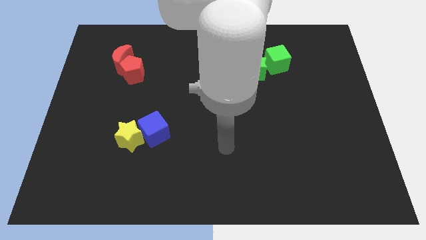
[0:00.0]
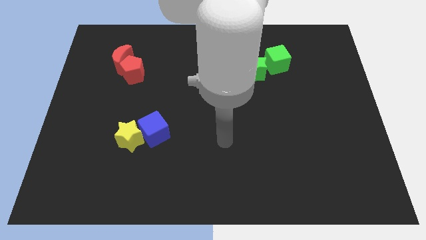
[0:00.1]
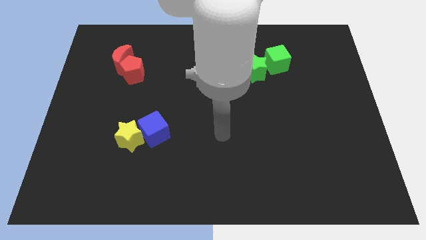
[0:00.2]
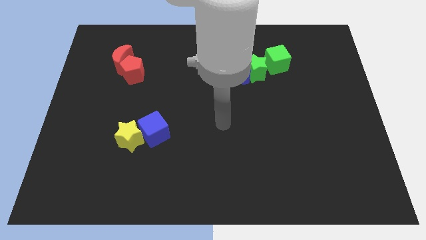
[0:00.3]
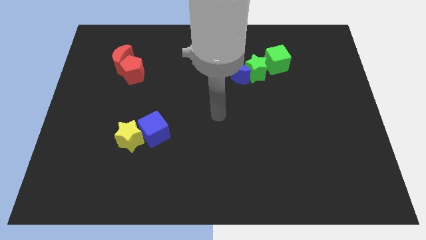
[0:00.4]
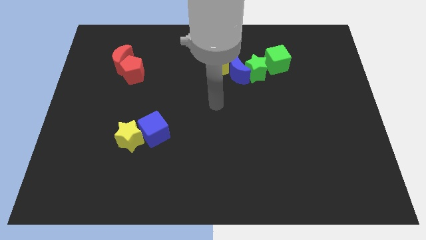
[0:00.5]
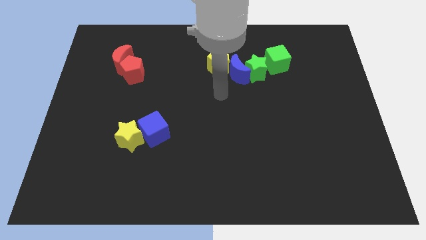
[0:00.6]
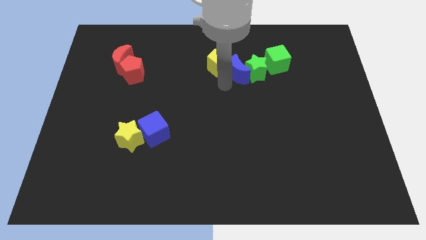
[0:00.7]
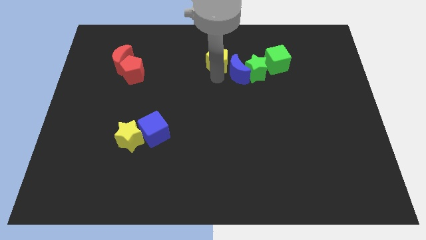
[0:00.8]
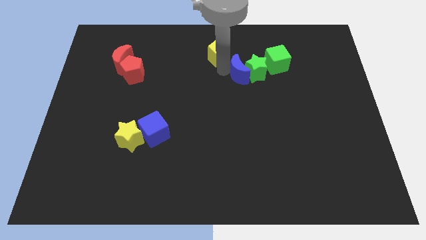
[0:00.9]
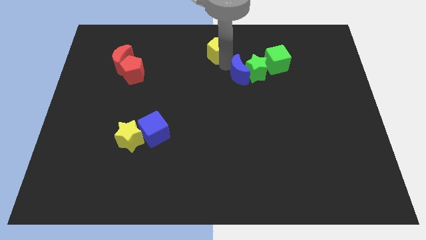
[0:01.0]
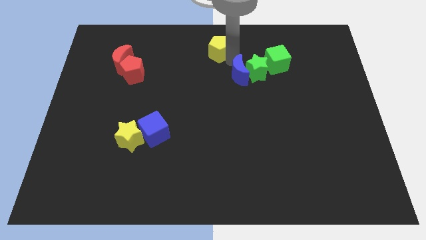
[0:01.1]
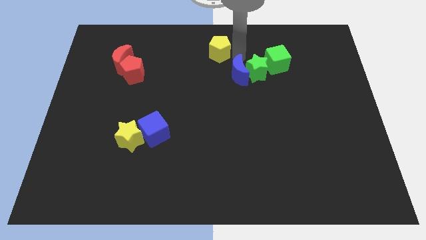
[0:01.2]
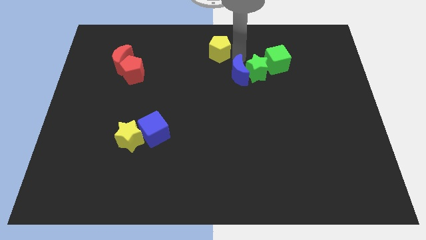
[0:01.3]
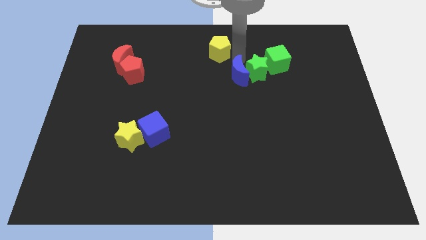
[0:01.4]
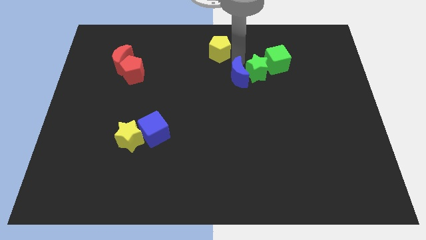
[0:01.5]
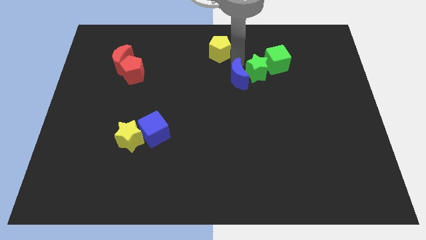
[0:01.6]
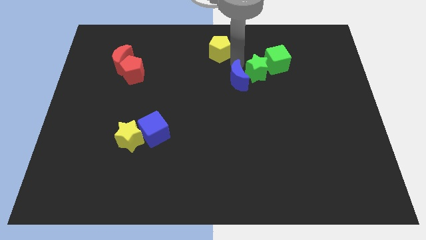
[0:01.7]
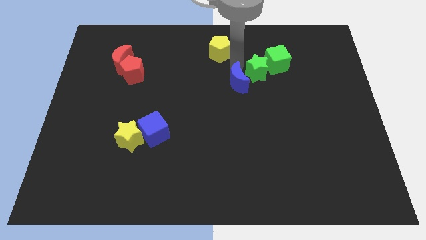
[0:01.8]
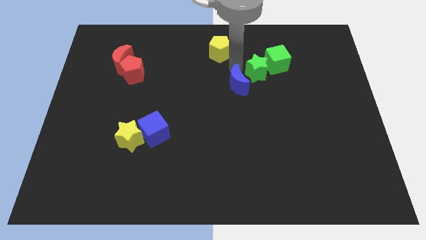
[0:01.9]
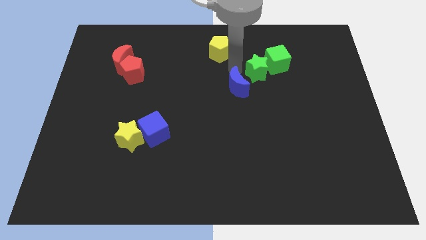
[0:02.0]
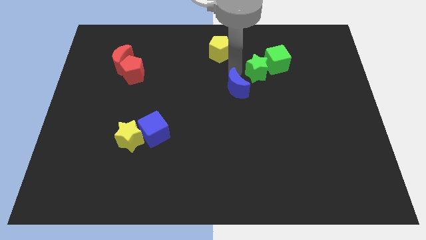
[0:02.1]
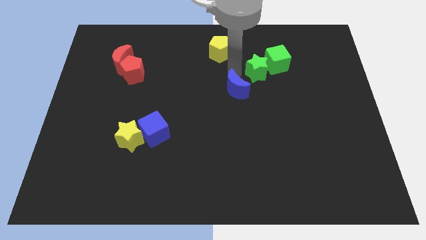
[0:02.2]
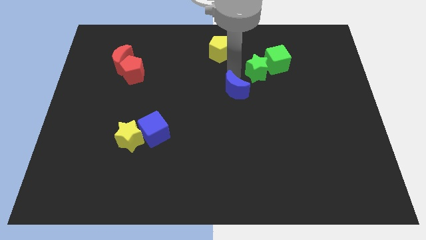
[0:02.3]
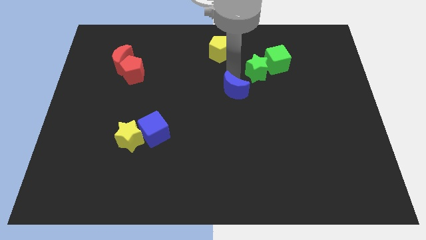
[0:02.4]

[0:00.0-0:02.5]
pull the blue moon apart from the green star and yellow pentagon

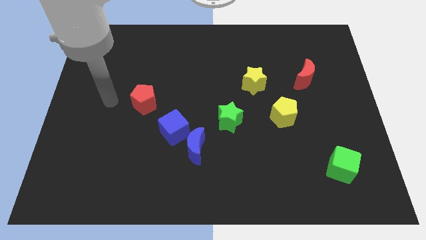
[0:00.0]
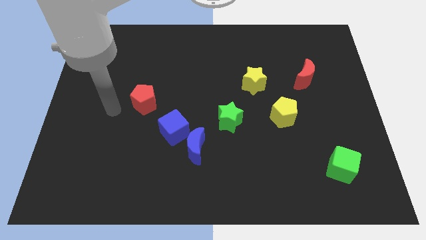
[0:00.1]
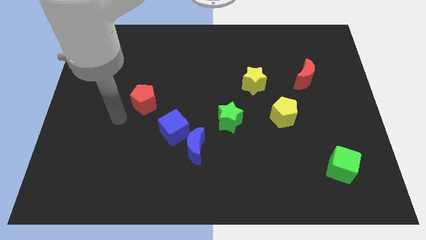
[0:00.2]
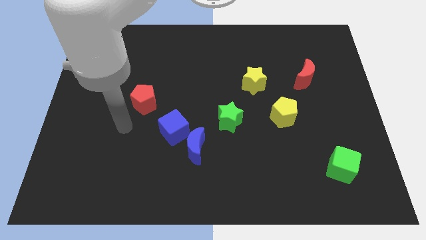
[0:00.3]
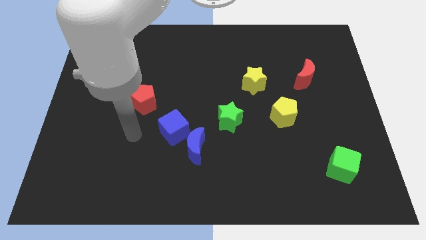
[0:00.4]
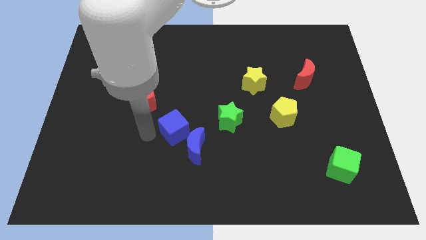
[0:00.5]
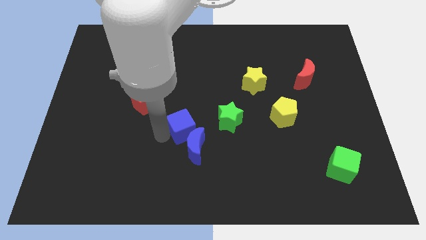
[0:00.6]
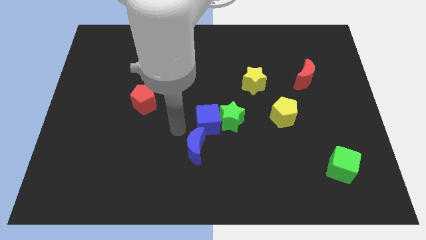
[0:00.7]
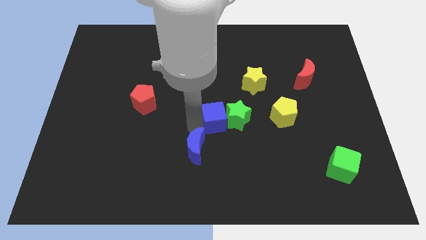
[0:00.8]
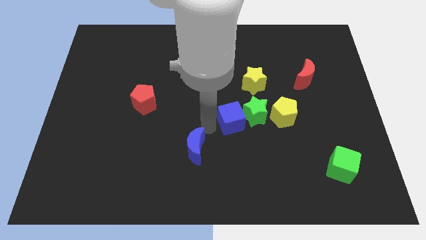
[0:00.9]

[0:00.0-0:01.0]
move the blue moon away from the blue cube

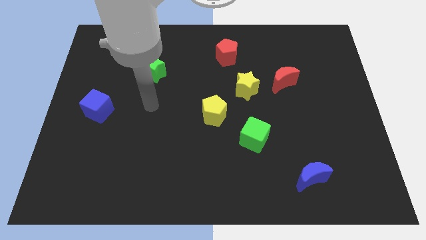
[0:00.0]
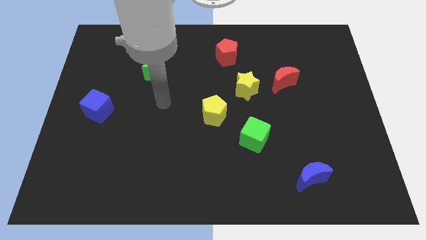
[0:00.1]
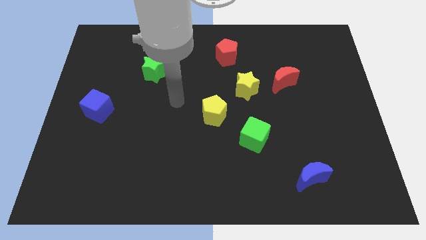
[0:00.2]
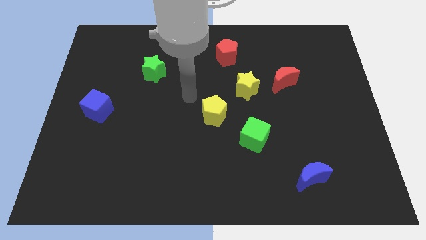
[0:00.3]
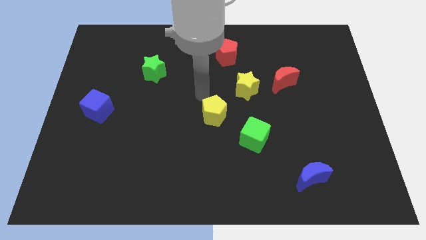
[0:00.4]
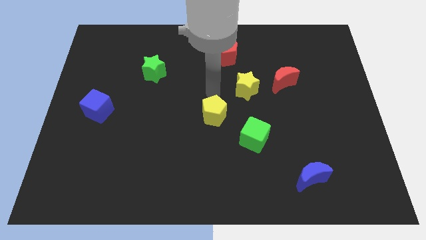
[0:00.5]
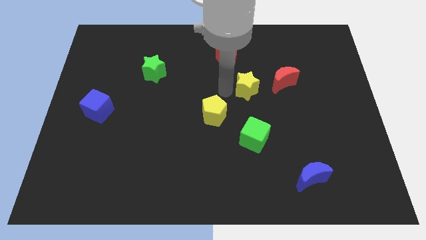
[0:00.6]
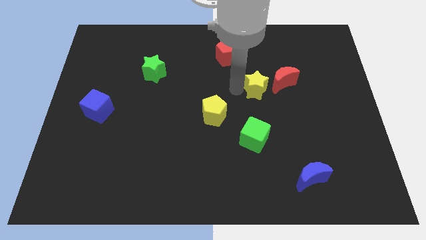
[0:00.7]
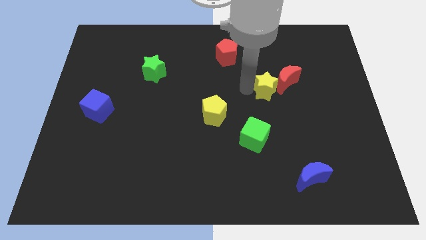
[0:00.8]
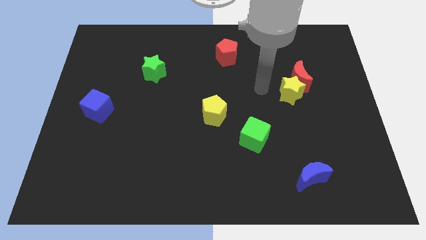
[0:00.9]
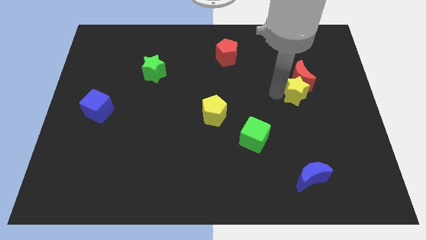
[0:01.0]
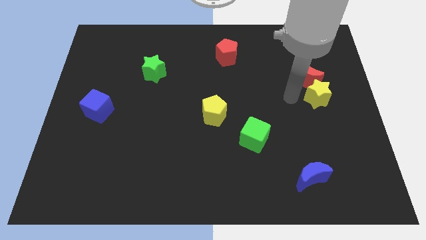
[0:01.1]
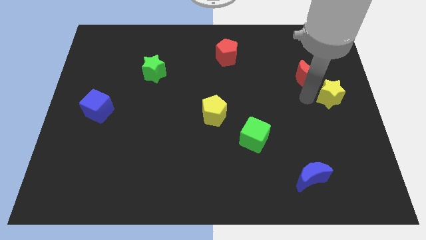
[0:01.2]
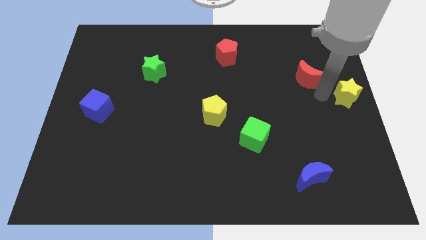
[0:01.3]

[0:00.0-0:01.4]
separate the red moon from the yellow star

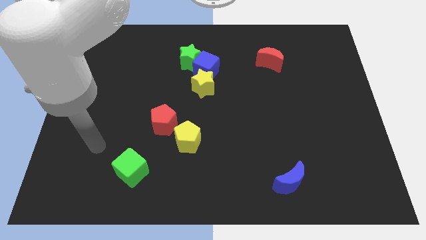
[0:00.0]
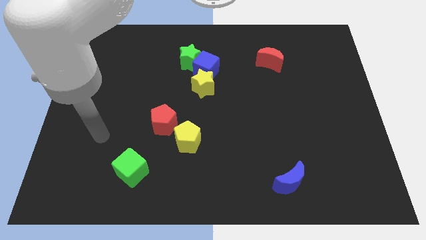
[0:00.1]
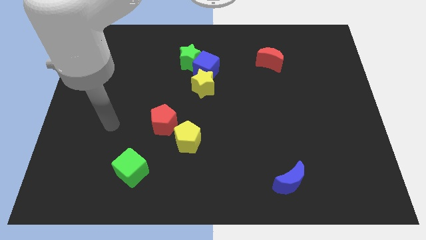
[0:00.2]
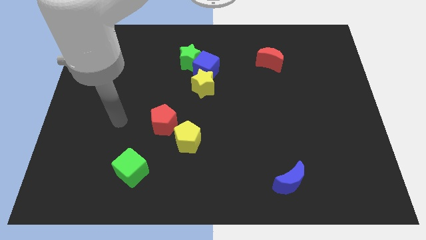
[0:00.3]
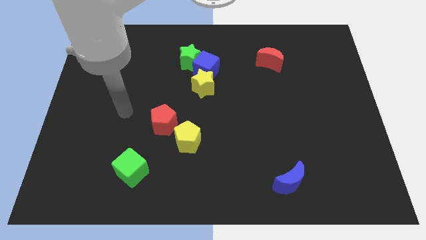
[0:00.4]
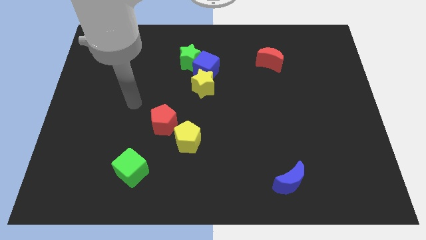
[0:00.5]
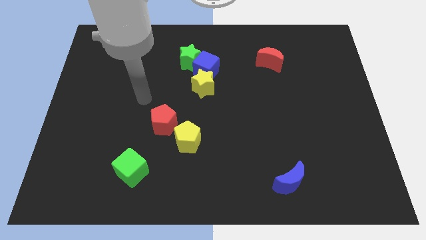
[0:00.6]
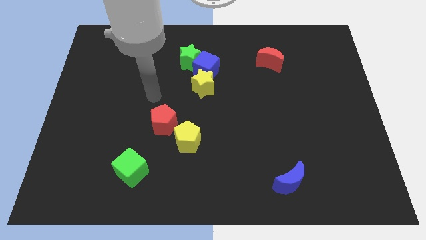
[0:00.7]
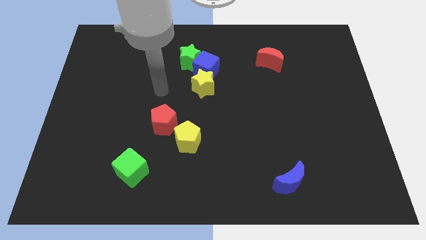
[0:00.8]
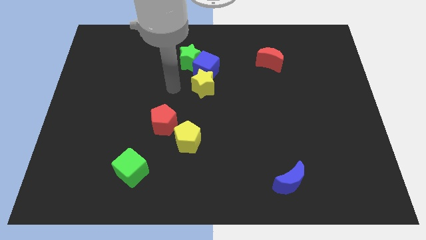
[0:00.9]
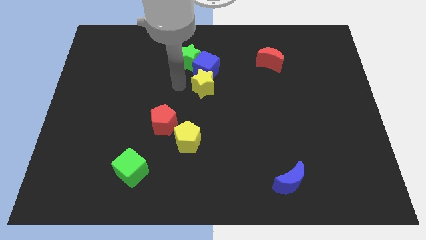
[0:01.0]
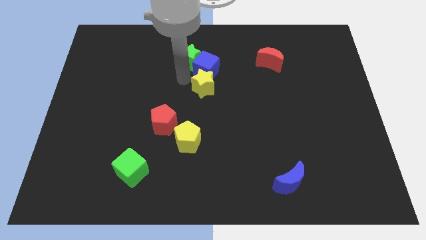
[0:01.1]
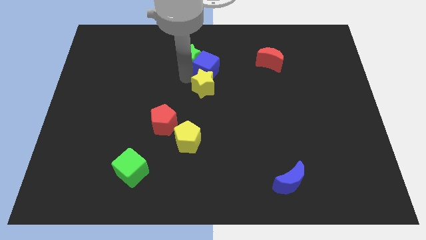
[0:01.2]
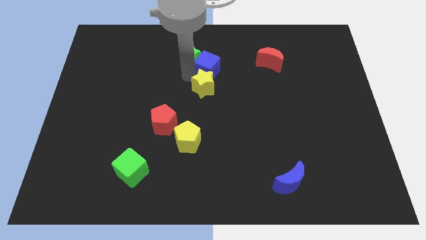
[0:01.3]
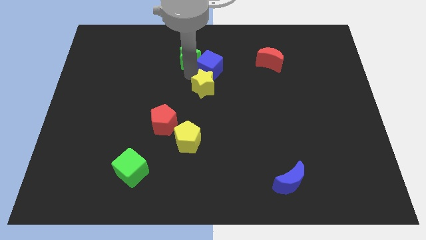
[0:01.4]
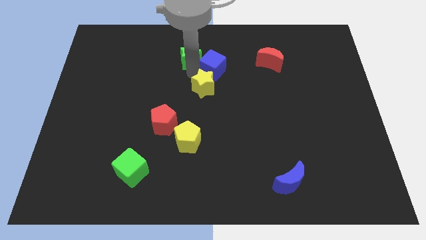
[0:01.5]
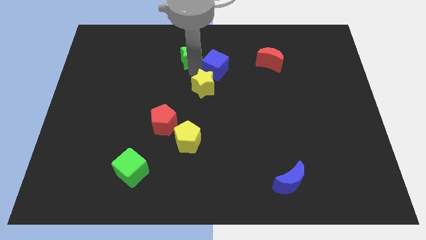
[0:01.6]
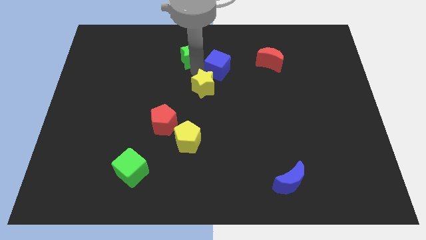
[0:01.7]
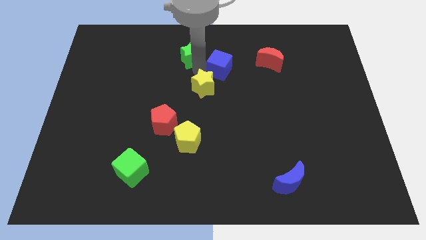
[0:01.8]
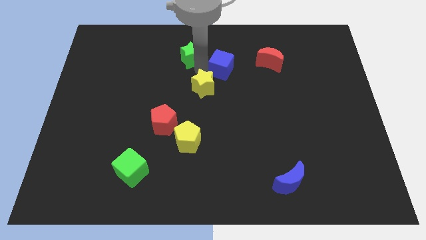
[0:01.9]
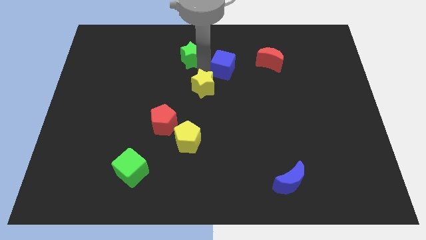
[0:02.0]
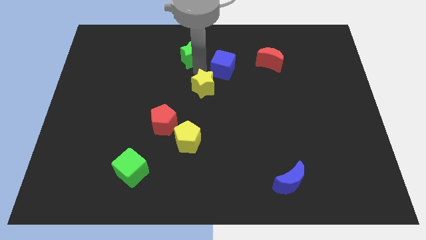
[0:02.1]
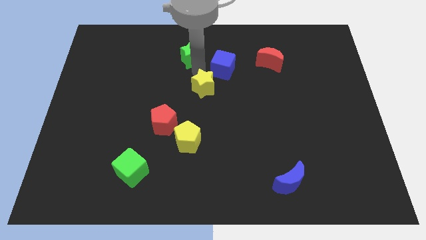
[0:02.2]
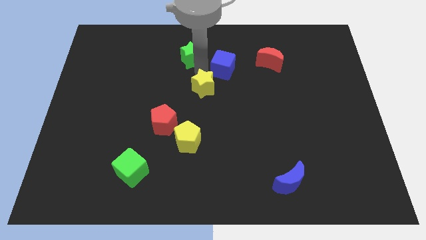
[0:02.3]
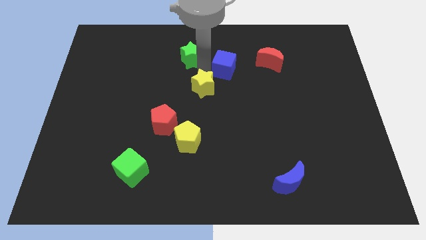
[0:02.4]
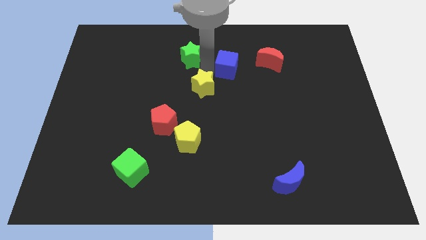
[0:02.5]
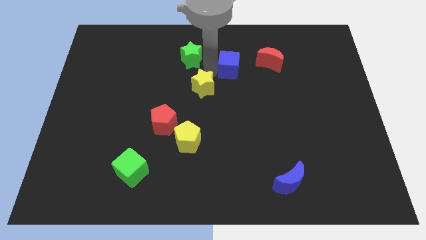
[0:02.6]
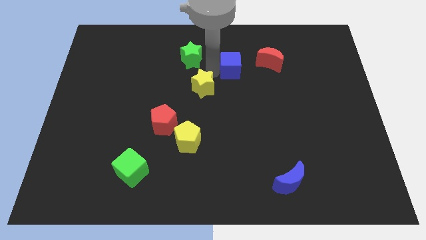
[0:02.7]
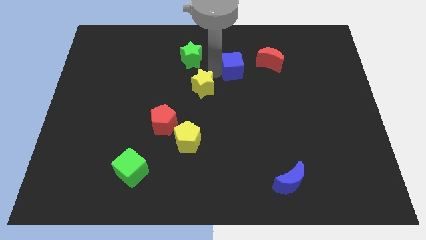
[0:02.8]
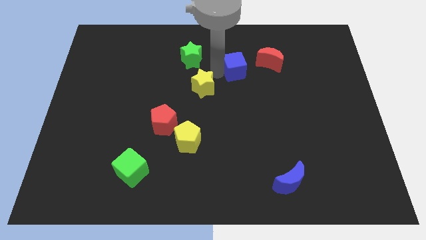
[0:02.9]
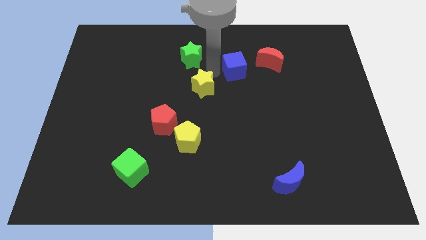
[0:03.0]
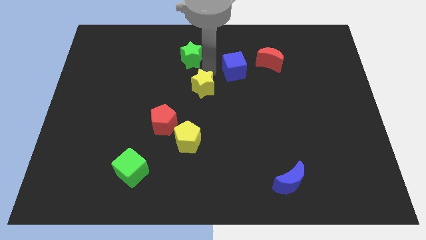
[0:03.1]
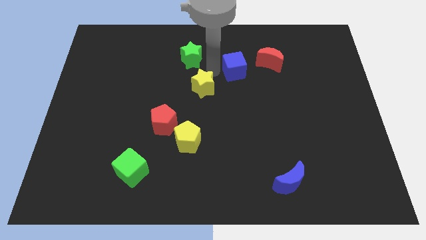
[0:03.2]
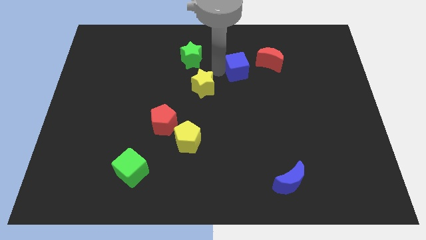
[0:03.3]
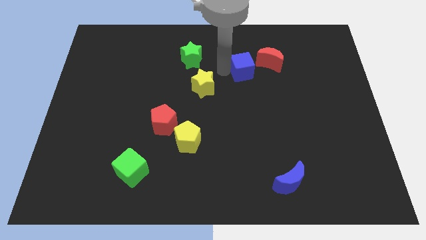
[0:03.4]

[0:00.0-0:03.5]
move the blue cube away from the green star and yellow star

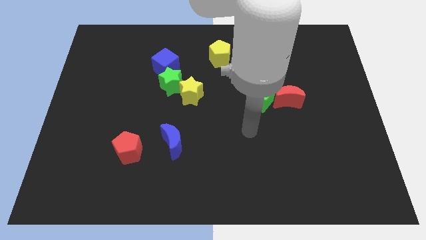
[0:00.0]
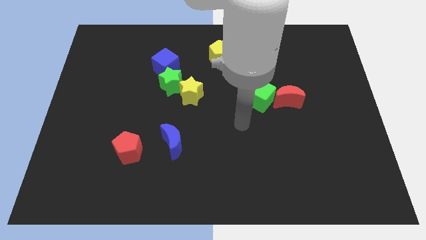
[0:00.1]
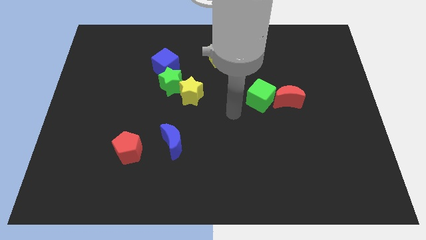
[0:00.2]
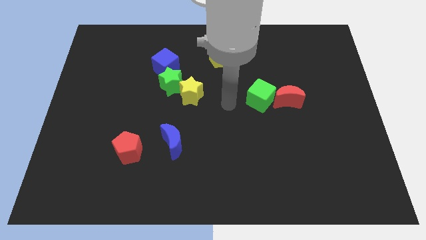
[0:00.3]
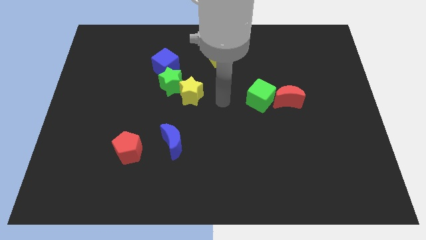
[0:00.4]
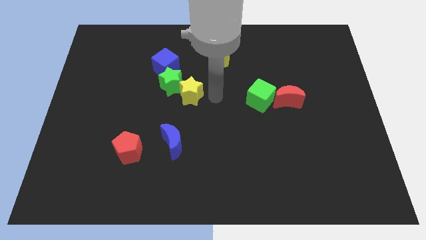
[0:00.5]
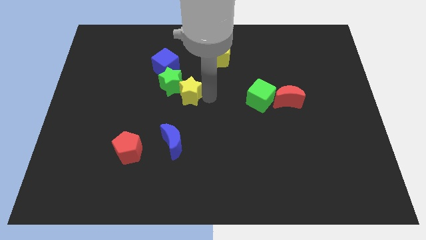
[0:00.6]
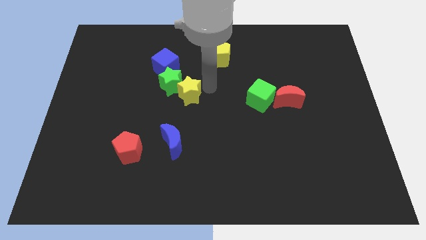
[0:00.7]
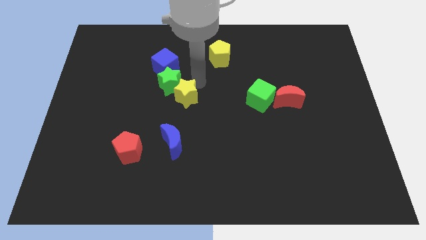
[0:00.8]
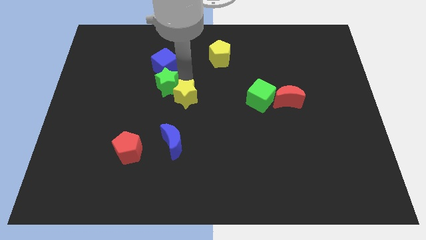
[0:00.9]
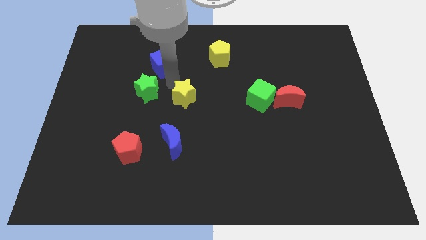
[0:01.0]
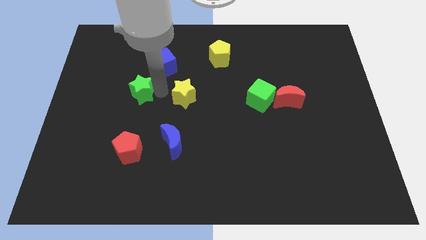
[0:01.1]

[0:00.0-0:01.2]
pull the yellow star apart from the green star
